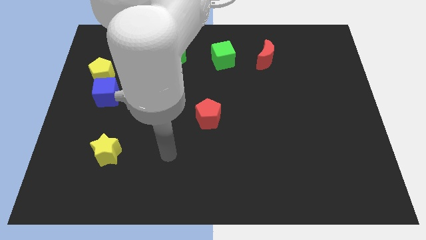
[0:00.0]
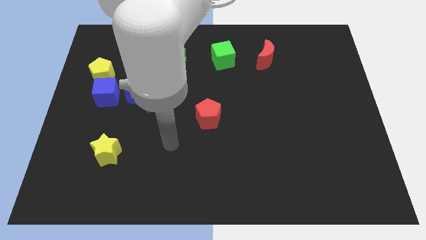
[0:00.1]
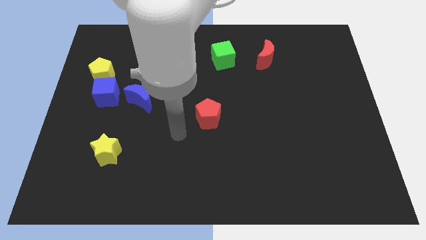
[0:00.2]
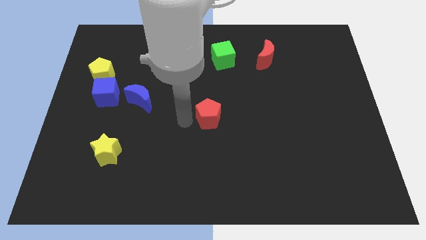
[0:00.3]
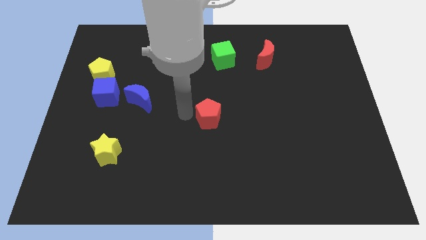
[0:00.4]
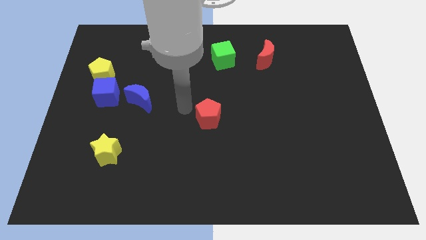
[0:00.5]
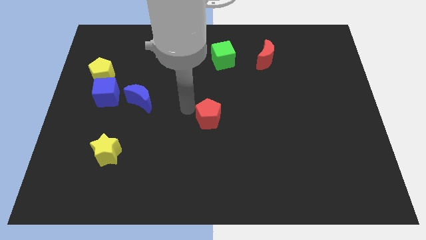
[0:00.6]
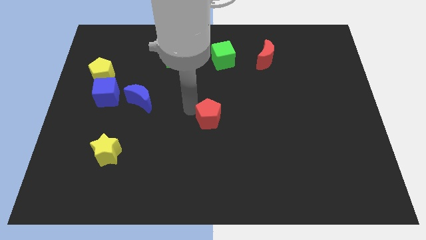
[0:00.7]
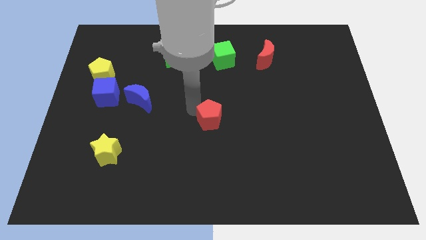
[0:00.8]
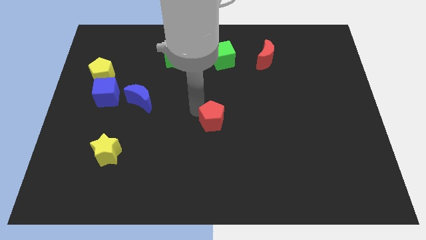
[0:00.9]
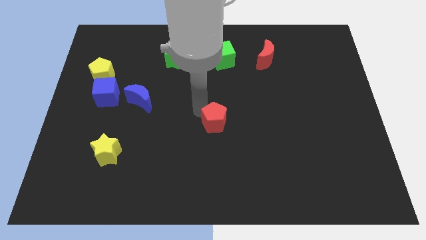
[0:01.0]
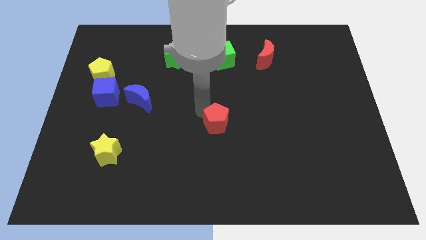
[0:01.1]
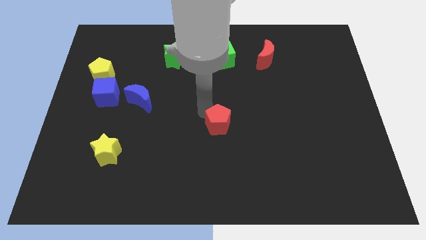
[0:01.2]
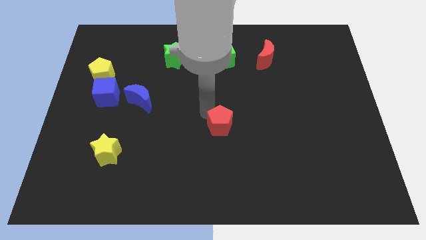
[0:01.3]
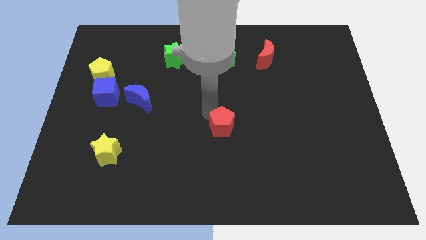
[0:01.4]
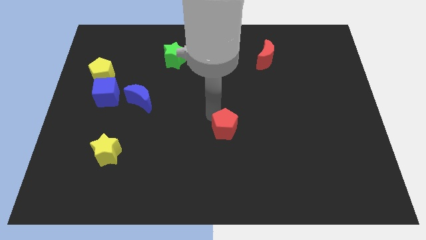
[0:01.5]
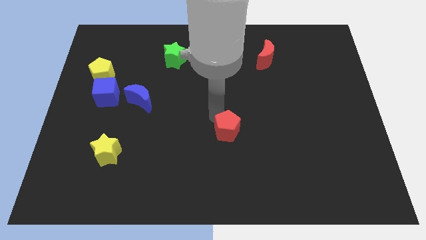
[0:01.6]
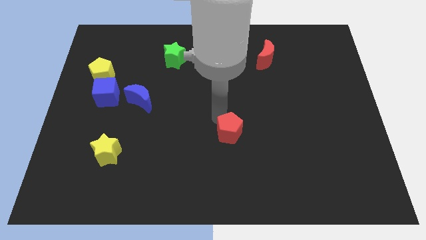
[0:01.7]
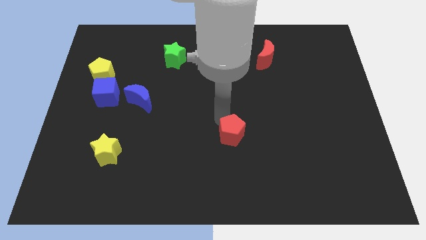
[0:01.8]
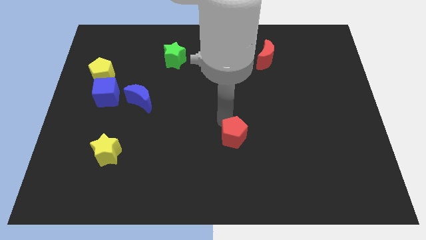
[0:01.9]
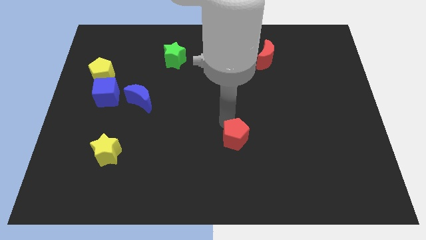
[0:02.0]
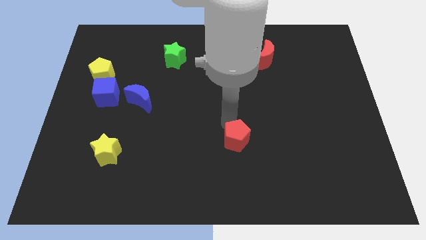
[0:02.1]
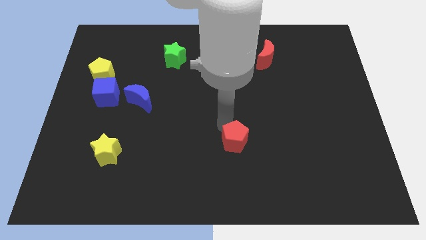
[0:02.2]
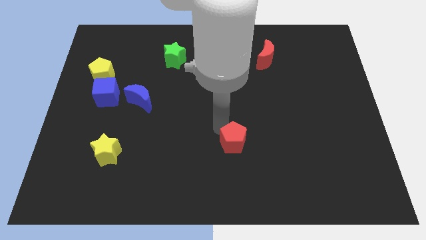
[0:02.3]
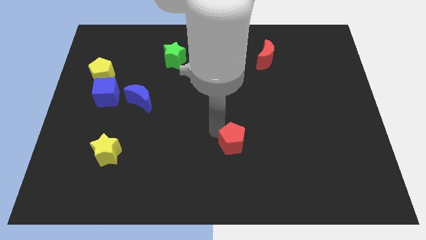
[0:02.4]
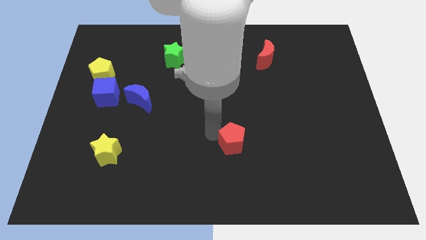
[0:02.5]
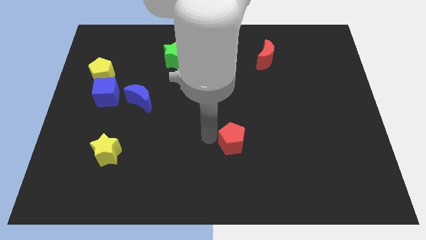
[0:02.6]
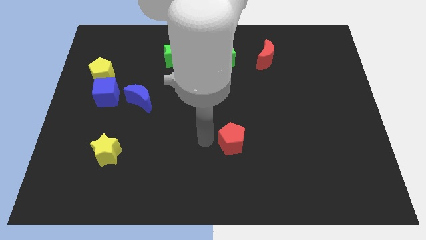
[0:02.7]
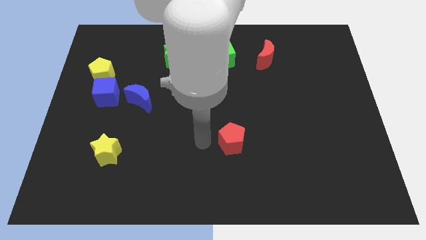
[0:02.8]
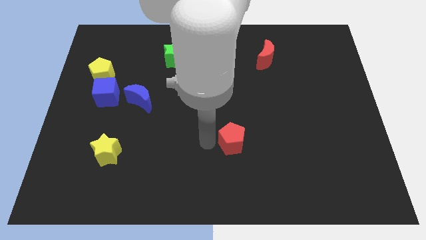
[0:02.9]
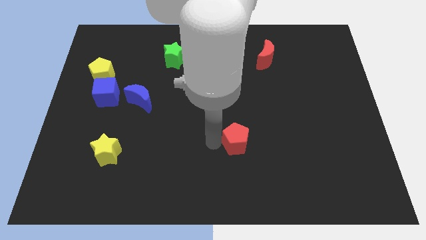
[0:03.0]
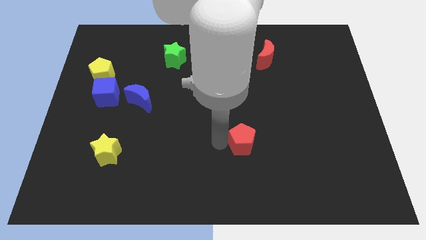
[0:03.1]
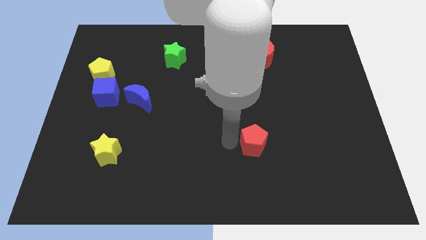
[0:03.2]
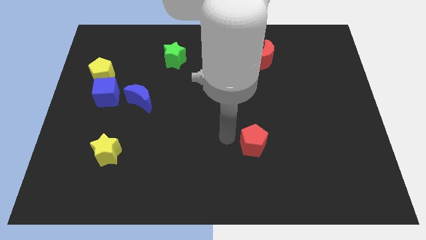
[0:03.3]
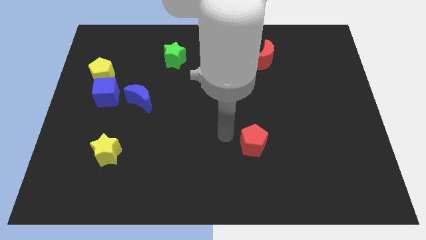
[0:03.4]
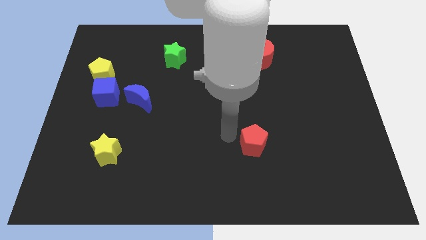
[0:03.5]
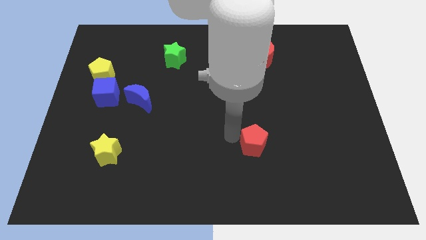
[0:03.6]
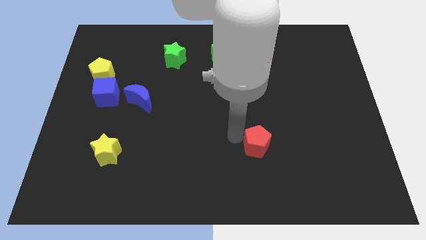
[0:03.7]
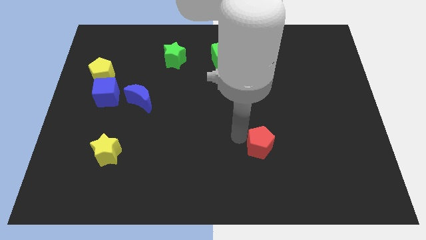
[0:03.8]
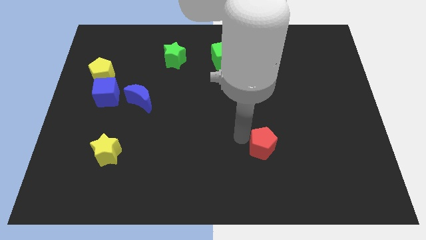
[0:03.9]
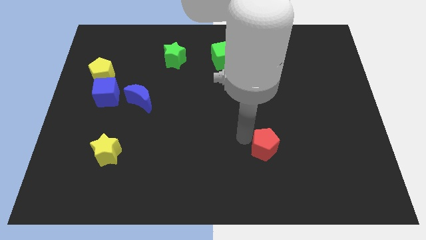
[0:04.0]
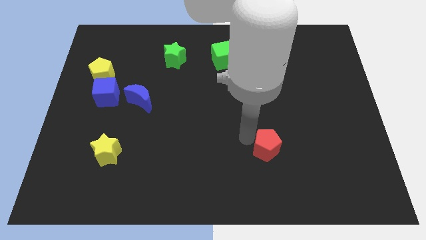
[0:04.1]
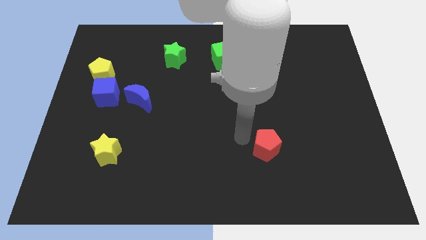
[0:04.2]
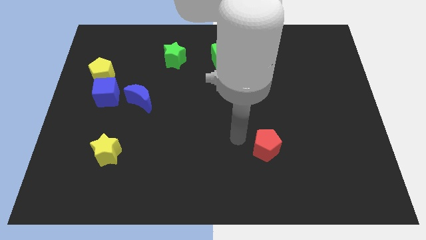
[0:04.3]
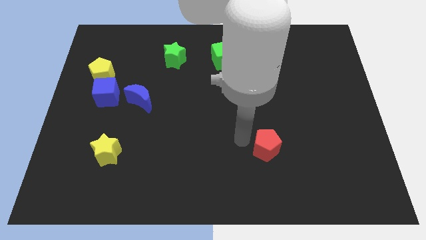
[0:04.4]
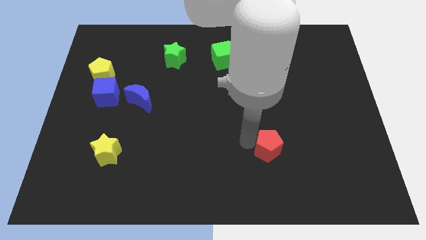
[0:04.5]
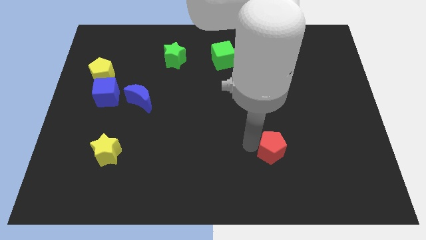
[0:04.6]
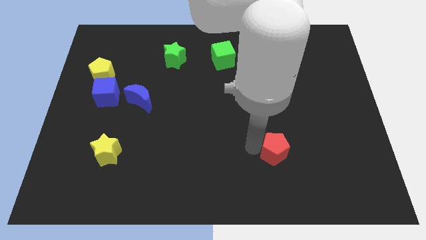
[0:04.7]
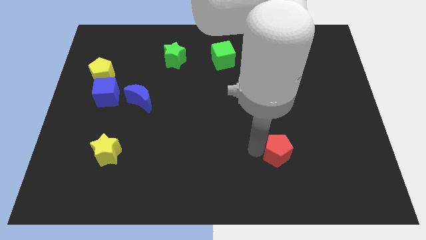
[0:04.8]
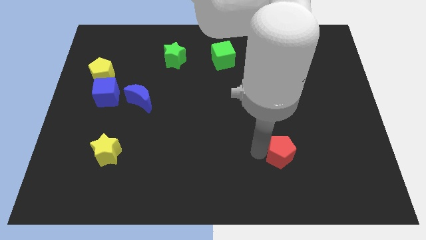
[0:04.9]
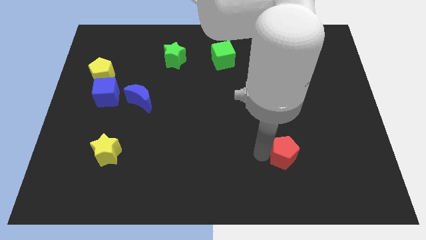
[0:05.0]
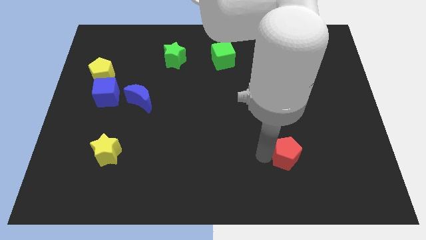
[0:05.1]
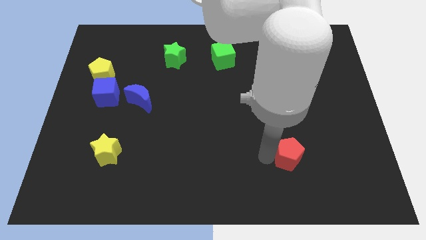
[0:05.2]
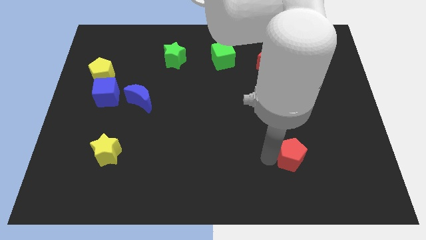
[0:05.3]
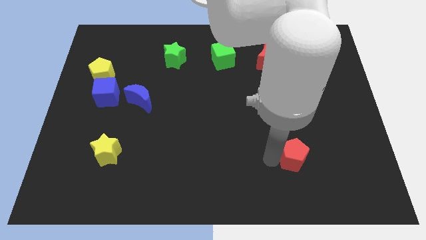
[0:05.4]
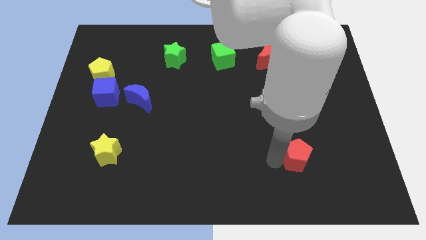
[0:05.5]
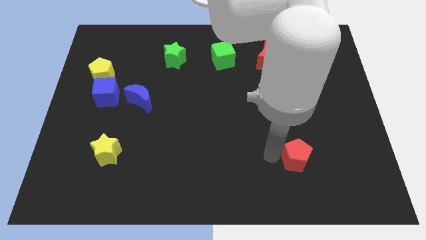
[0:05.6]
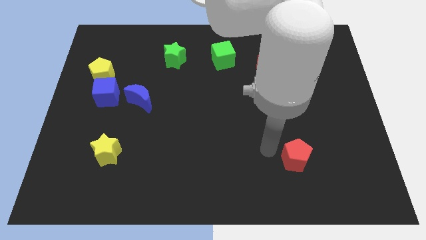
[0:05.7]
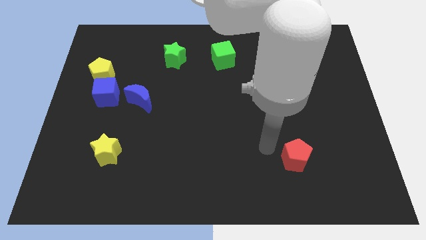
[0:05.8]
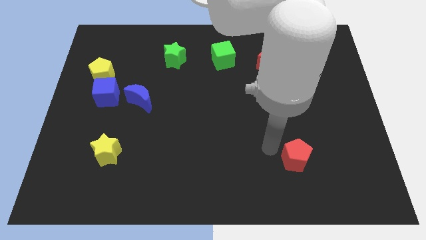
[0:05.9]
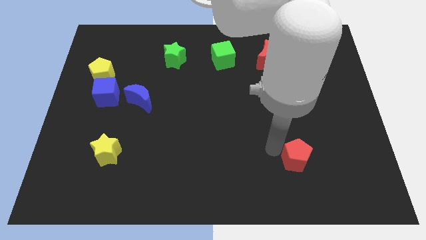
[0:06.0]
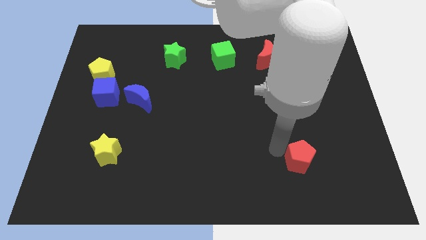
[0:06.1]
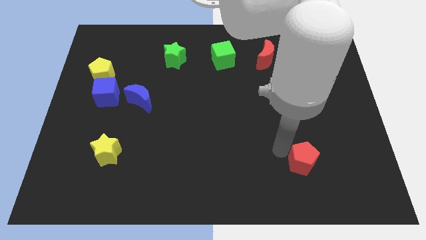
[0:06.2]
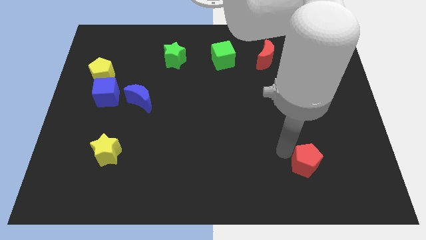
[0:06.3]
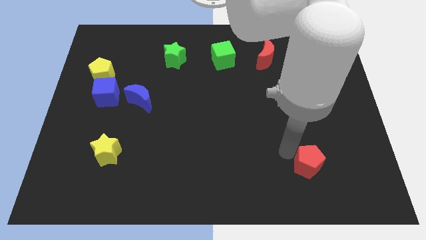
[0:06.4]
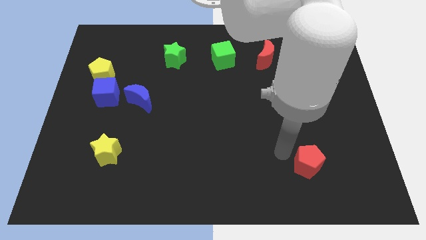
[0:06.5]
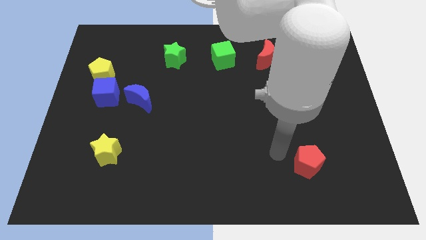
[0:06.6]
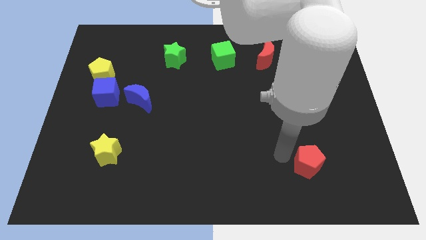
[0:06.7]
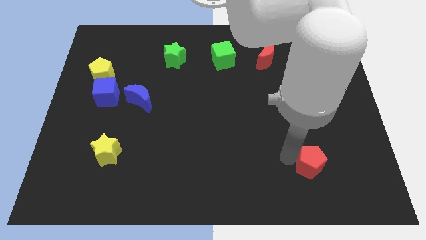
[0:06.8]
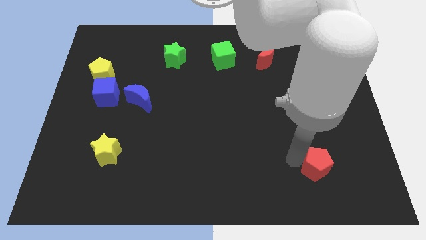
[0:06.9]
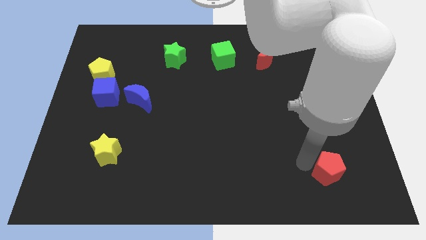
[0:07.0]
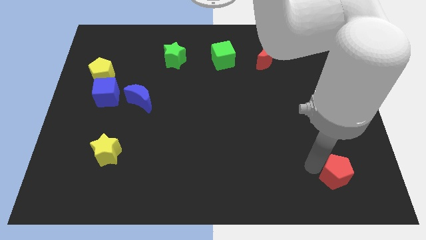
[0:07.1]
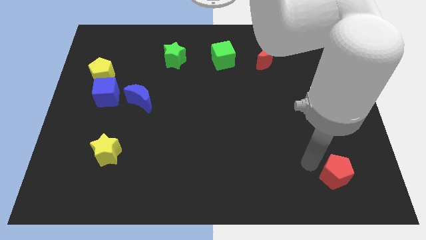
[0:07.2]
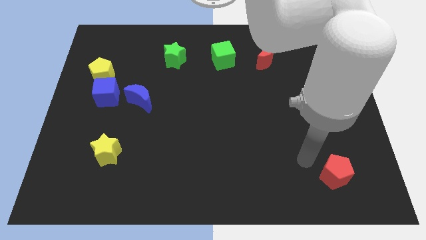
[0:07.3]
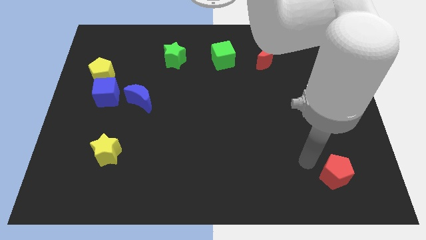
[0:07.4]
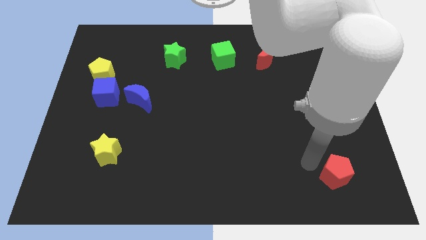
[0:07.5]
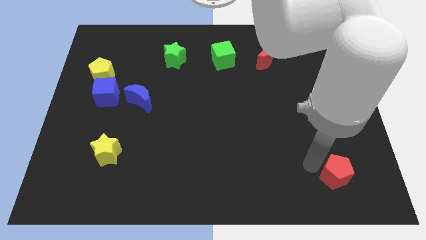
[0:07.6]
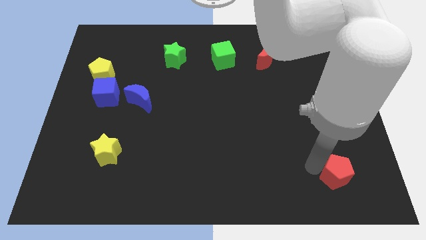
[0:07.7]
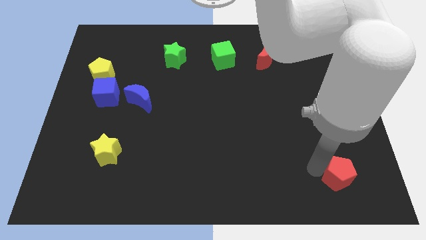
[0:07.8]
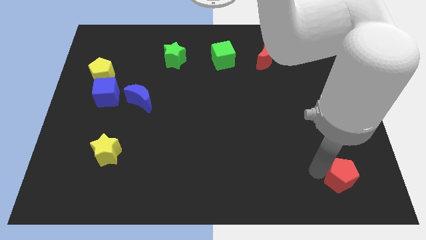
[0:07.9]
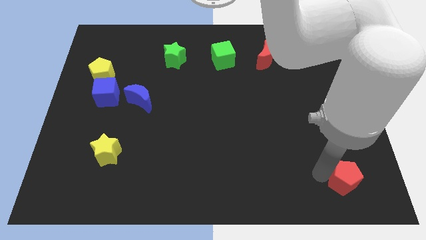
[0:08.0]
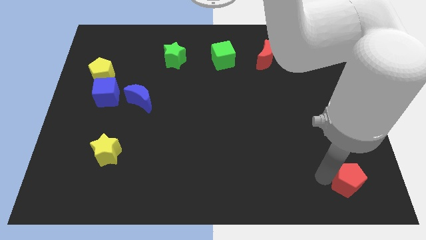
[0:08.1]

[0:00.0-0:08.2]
move the red pentagon to the bottom right corner
